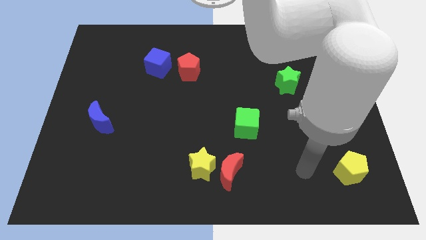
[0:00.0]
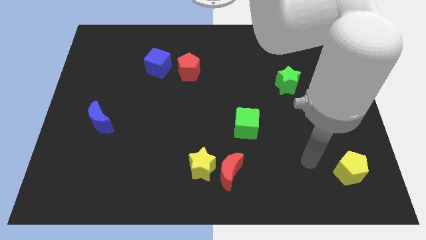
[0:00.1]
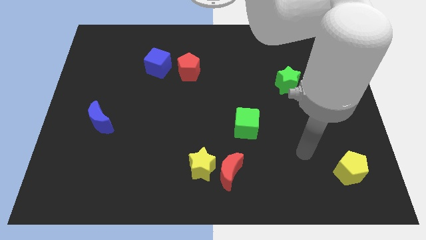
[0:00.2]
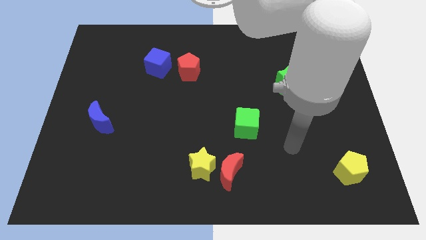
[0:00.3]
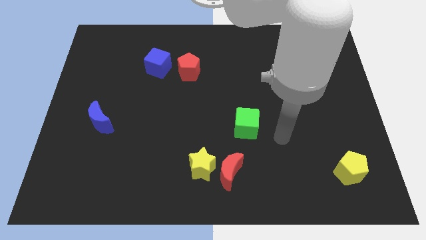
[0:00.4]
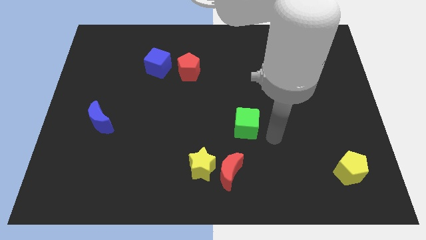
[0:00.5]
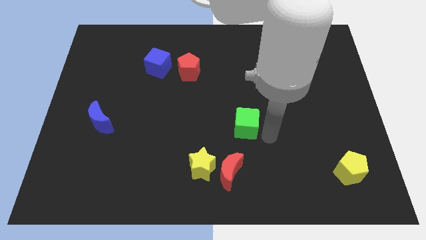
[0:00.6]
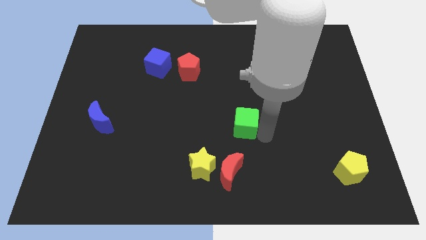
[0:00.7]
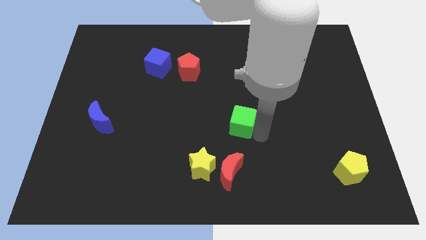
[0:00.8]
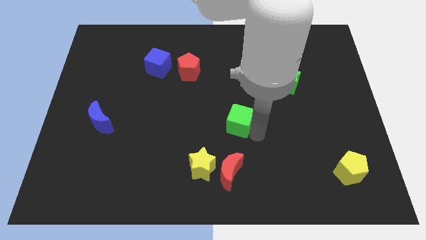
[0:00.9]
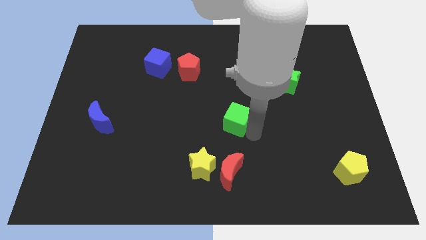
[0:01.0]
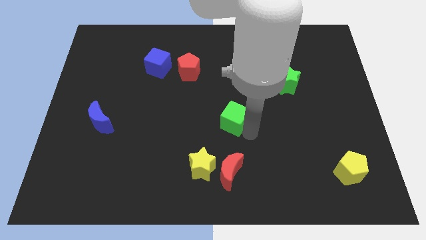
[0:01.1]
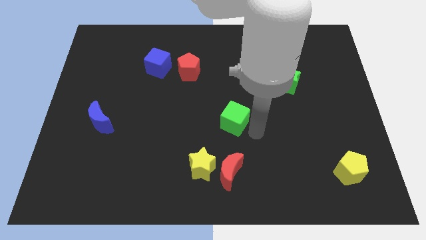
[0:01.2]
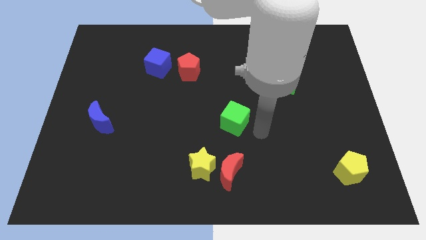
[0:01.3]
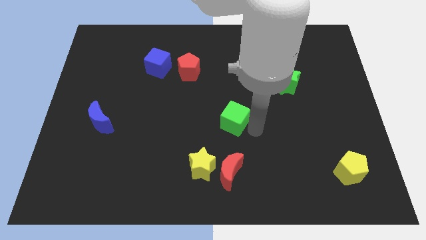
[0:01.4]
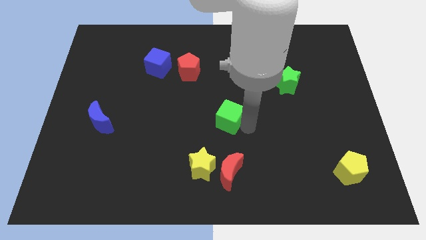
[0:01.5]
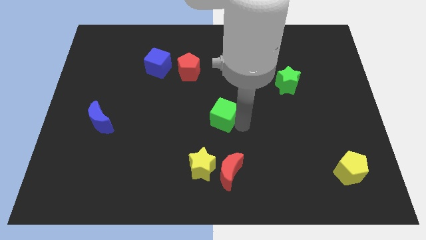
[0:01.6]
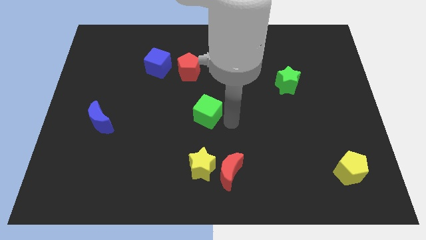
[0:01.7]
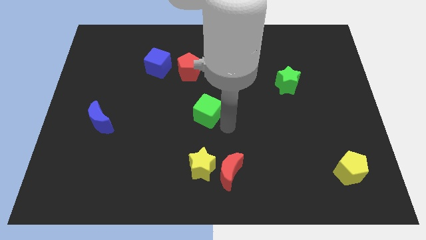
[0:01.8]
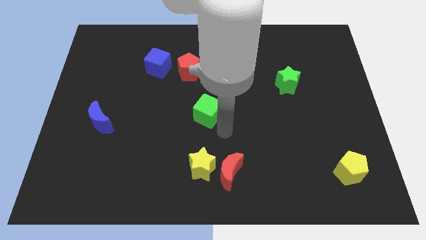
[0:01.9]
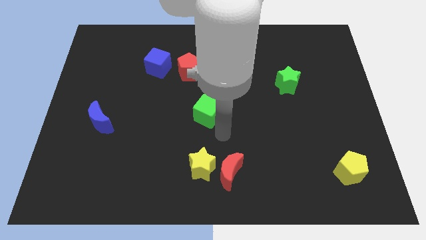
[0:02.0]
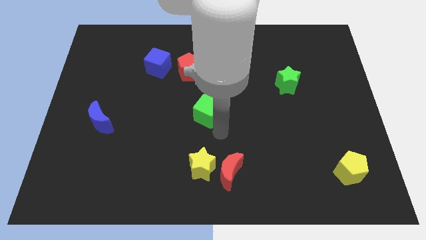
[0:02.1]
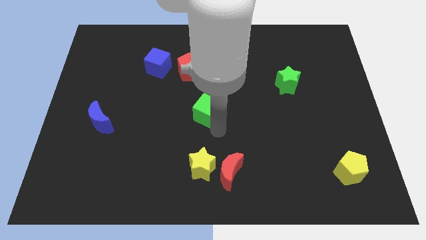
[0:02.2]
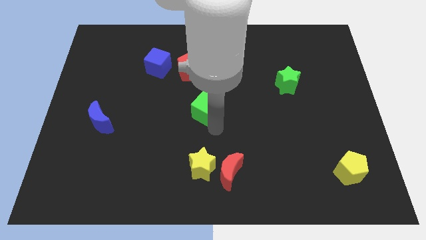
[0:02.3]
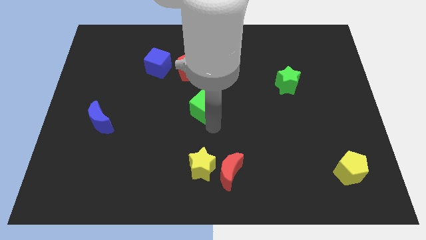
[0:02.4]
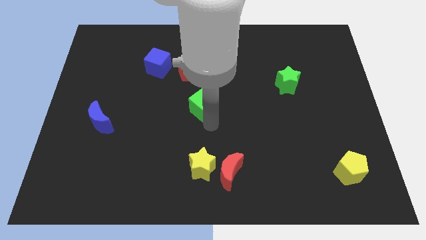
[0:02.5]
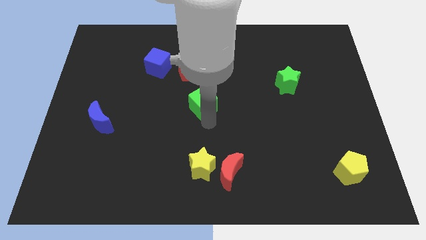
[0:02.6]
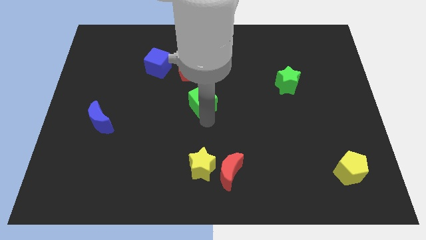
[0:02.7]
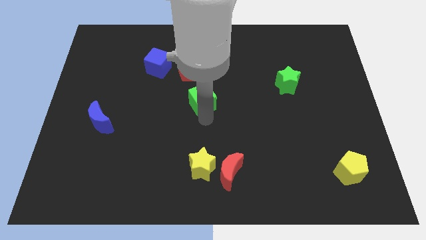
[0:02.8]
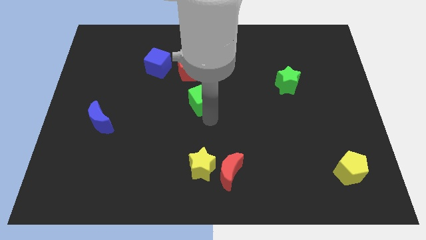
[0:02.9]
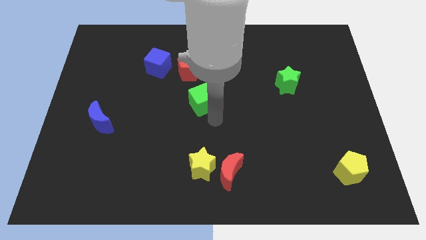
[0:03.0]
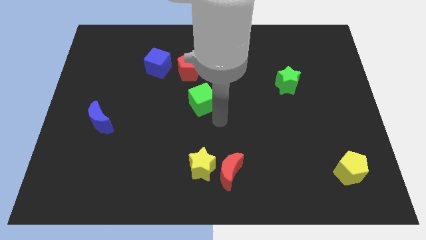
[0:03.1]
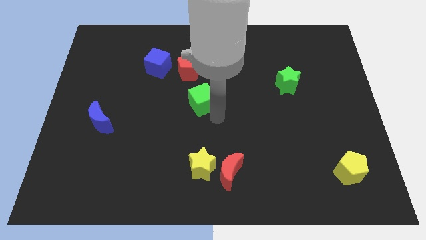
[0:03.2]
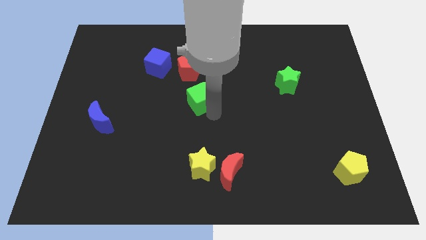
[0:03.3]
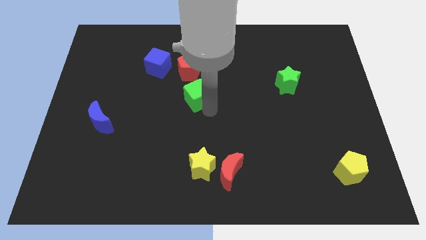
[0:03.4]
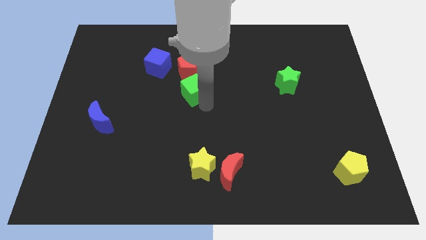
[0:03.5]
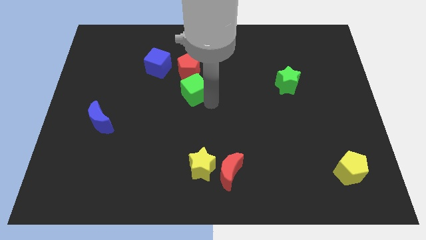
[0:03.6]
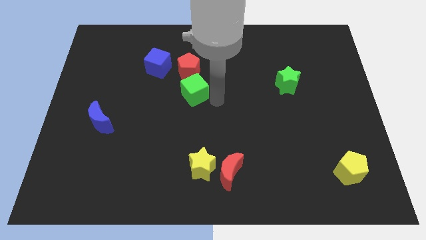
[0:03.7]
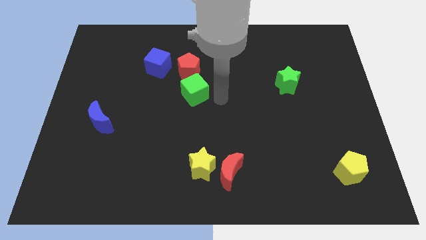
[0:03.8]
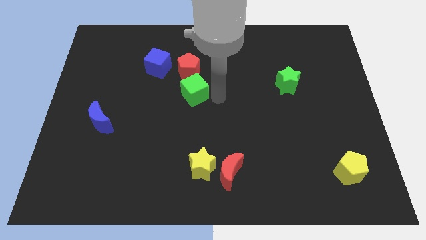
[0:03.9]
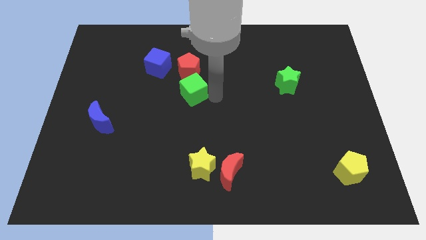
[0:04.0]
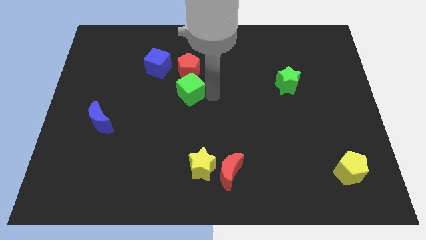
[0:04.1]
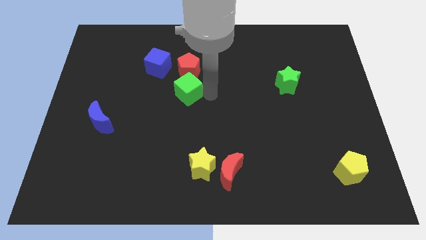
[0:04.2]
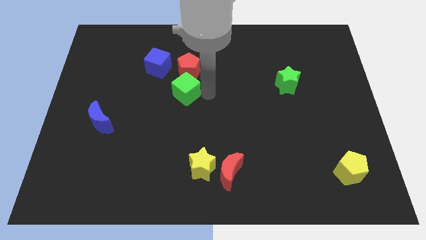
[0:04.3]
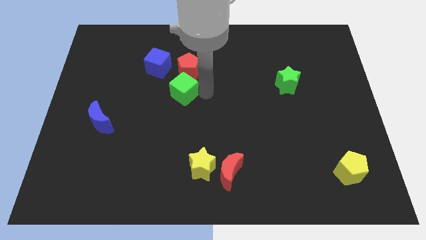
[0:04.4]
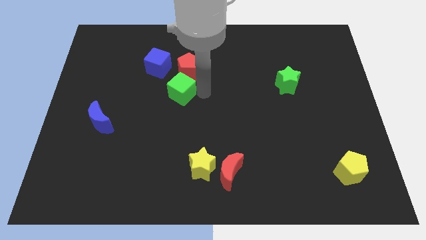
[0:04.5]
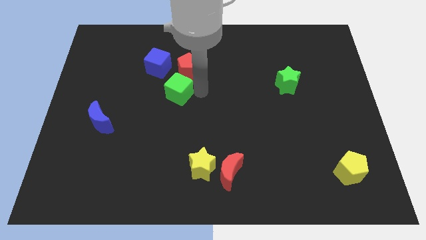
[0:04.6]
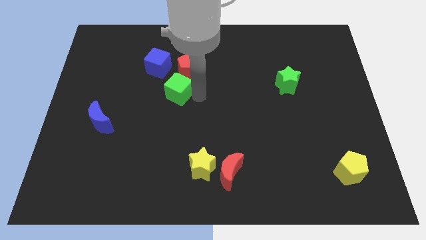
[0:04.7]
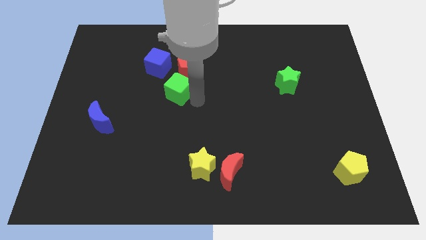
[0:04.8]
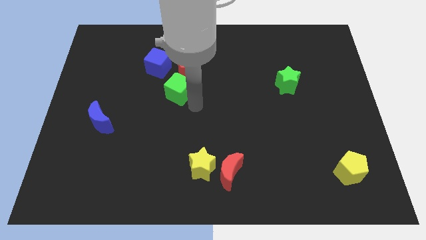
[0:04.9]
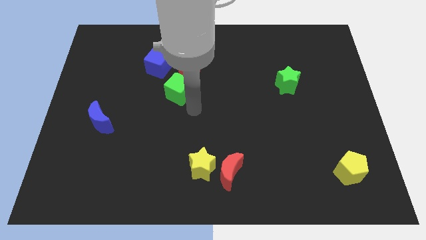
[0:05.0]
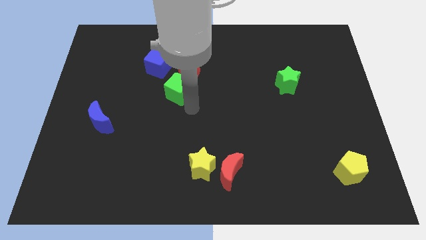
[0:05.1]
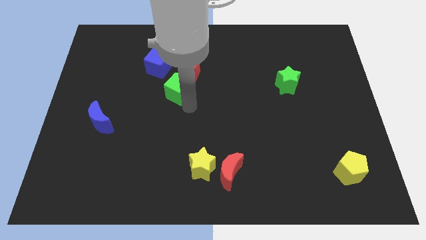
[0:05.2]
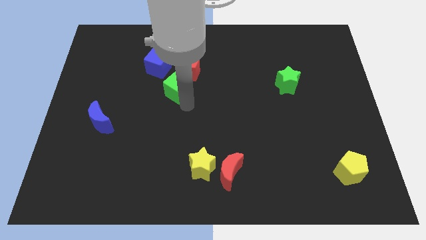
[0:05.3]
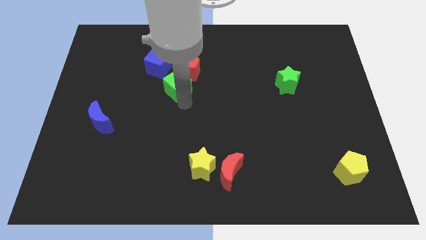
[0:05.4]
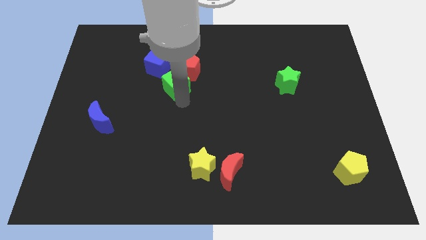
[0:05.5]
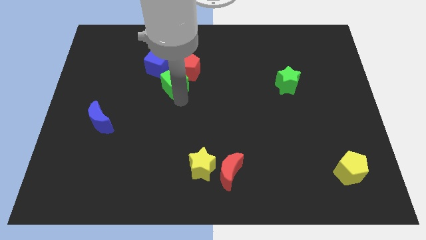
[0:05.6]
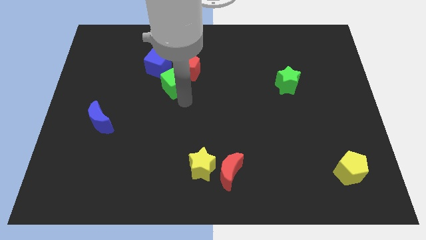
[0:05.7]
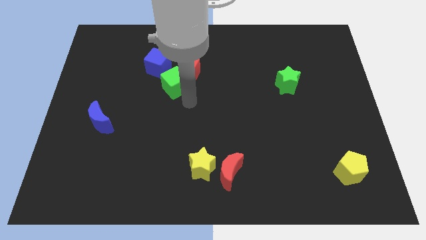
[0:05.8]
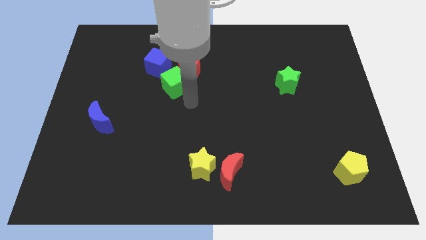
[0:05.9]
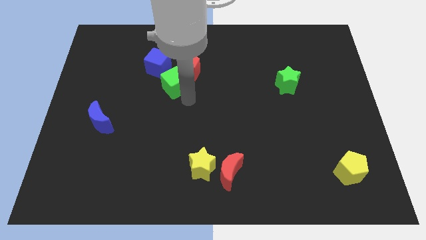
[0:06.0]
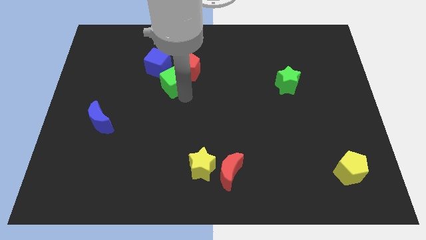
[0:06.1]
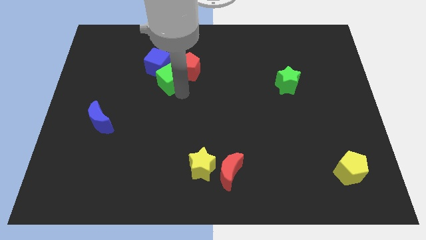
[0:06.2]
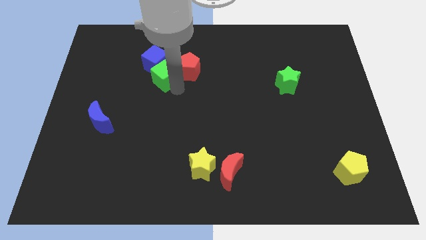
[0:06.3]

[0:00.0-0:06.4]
slide the green cube close to the blue cube

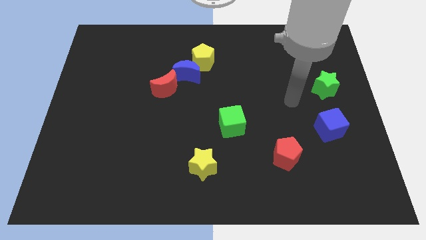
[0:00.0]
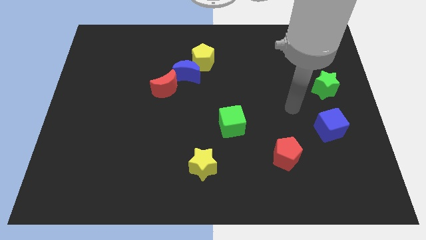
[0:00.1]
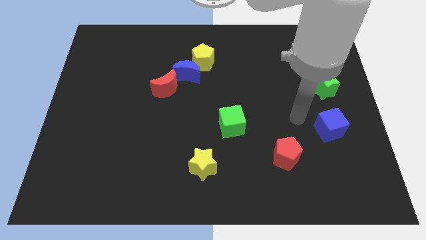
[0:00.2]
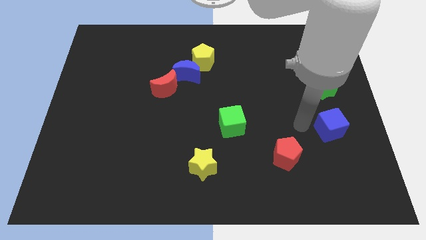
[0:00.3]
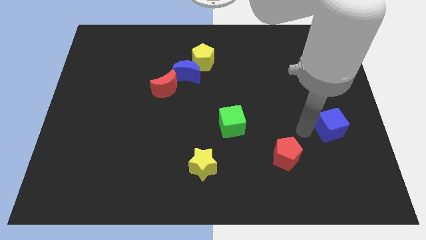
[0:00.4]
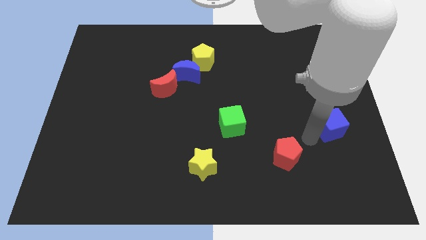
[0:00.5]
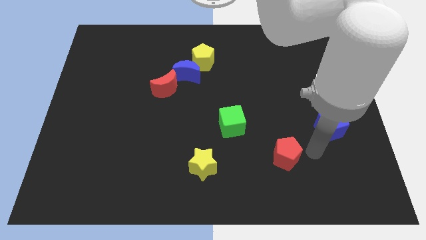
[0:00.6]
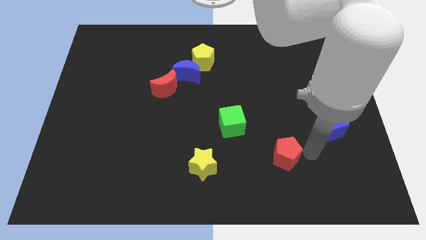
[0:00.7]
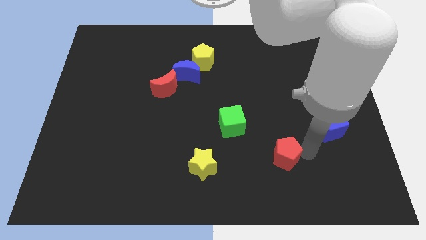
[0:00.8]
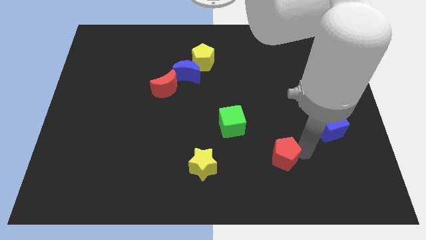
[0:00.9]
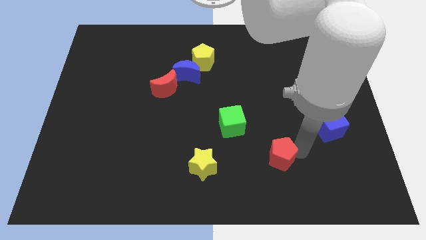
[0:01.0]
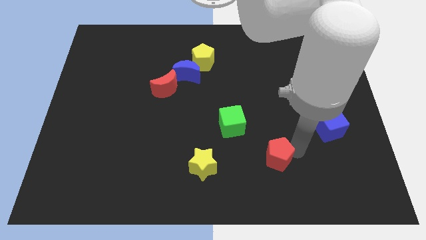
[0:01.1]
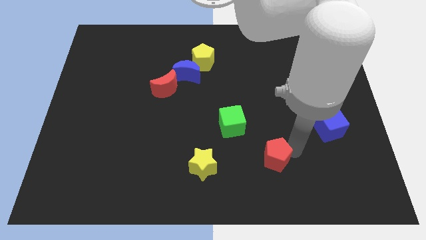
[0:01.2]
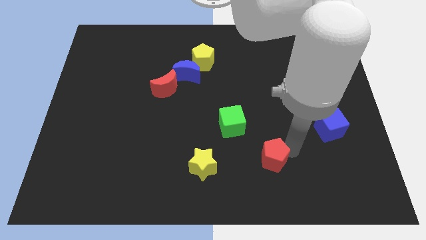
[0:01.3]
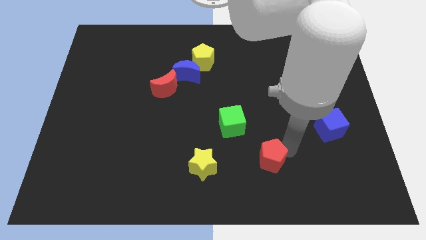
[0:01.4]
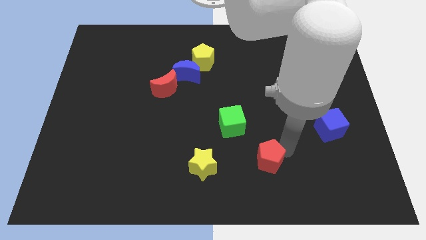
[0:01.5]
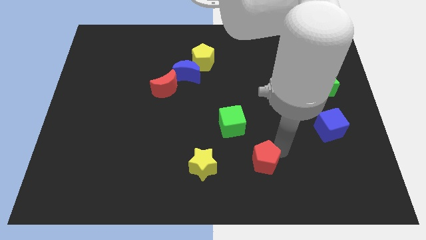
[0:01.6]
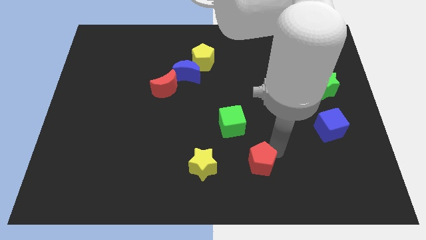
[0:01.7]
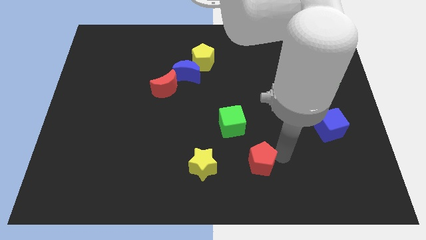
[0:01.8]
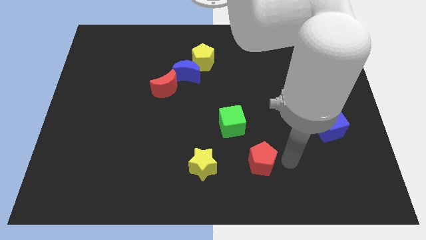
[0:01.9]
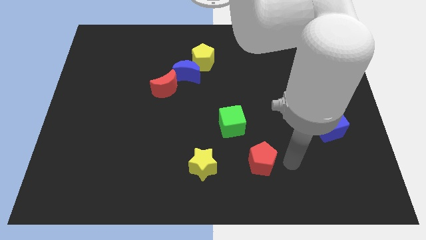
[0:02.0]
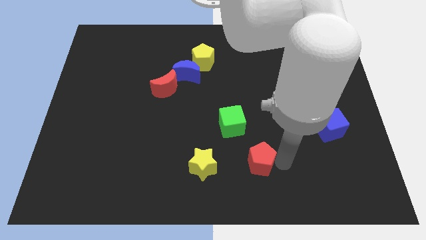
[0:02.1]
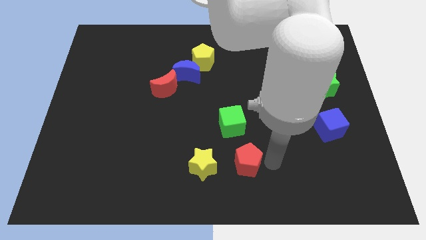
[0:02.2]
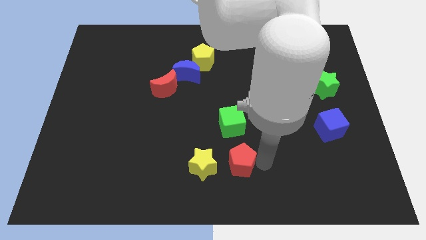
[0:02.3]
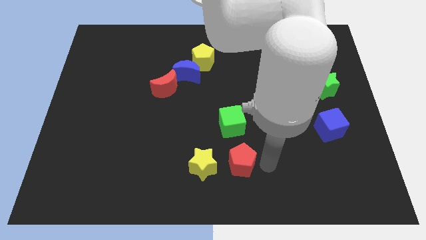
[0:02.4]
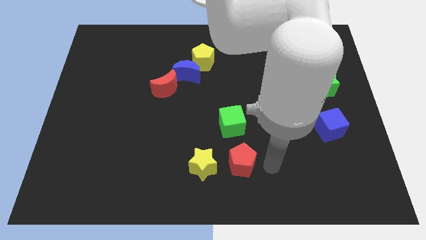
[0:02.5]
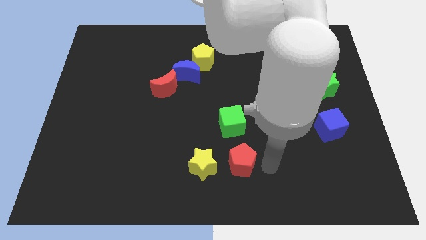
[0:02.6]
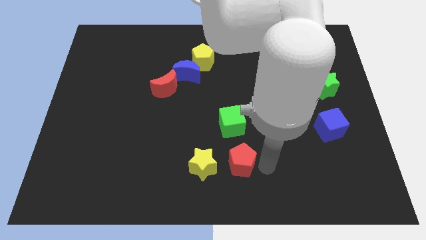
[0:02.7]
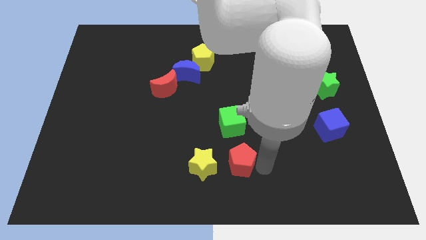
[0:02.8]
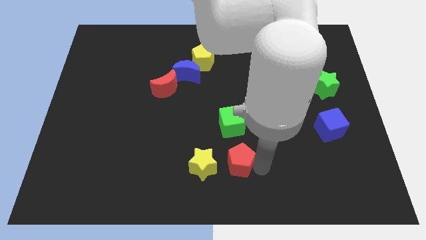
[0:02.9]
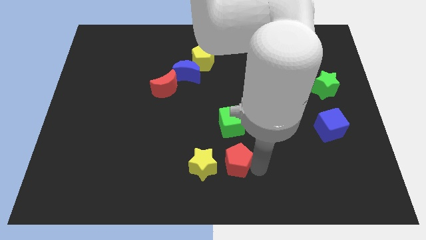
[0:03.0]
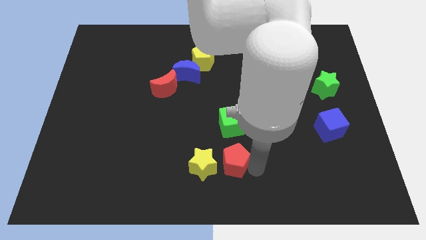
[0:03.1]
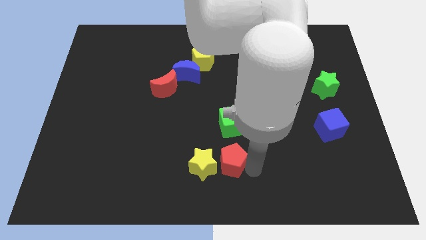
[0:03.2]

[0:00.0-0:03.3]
move the red pentagon to the yellow star
